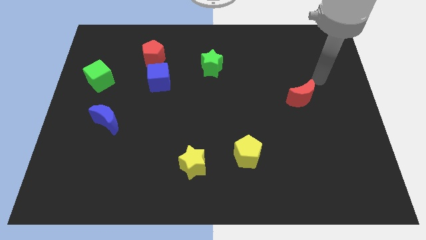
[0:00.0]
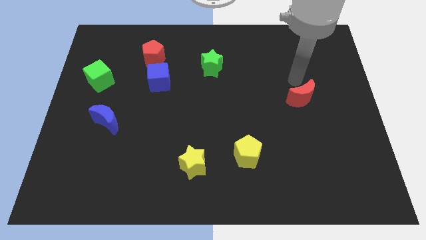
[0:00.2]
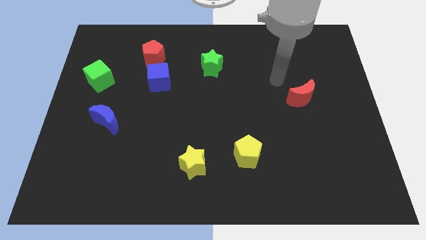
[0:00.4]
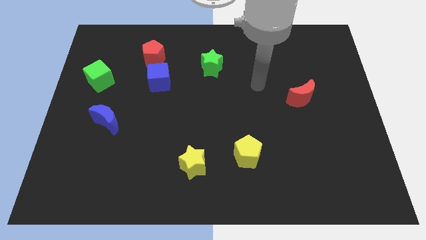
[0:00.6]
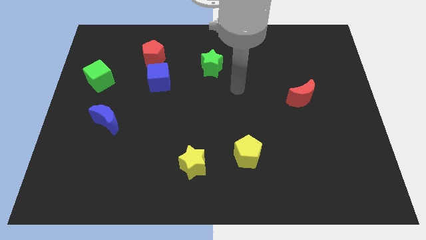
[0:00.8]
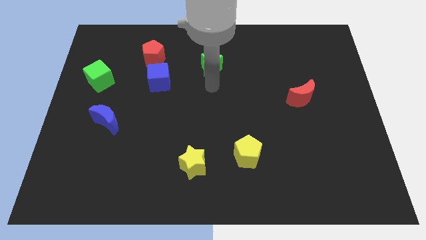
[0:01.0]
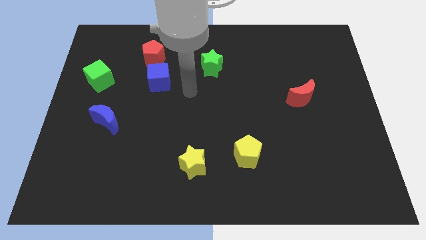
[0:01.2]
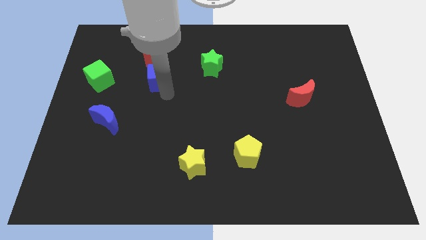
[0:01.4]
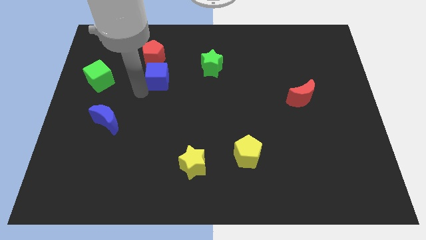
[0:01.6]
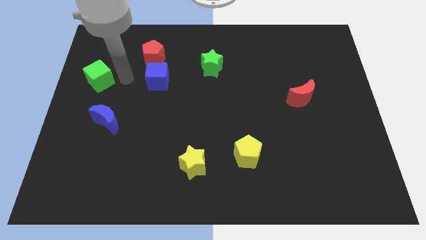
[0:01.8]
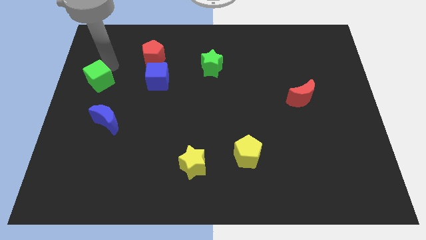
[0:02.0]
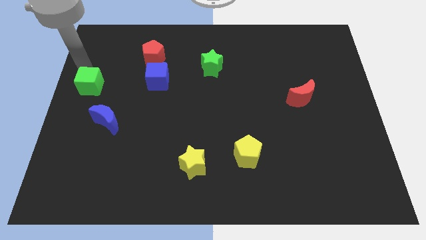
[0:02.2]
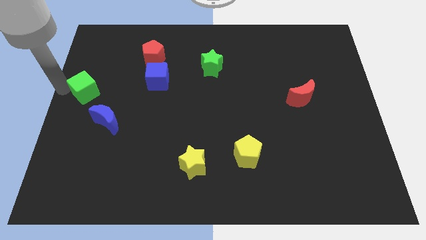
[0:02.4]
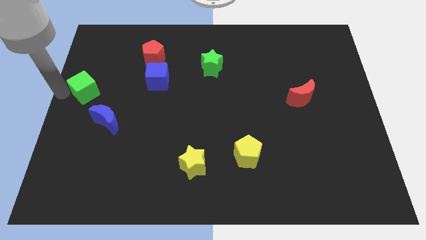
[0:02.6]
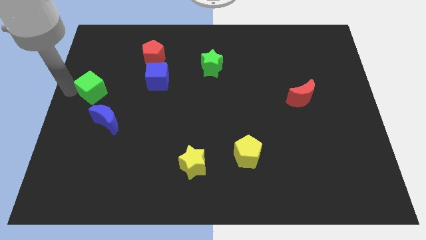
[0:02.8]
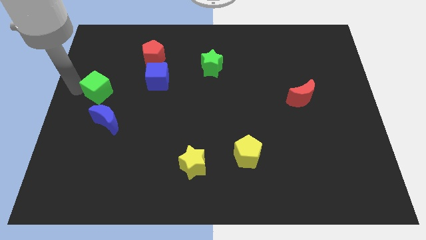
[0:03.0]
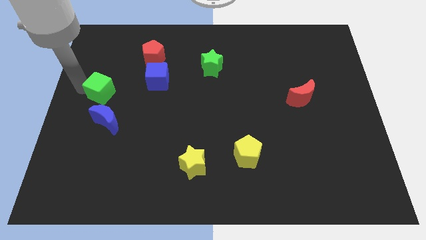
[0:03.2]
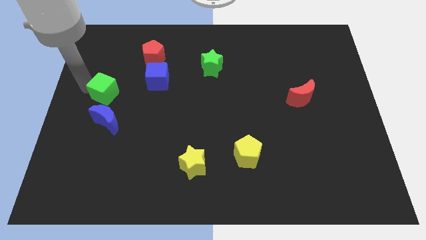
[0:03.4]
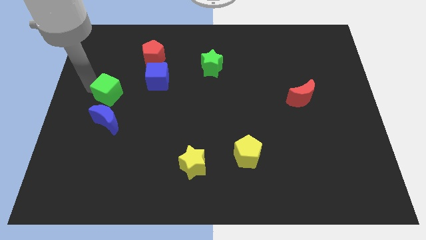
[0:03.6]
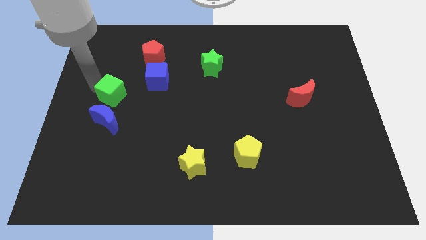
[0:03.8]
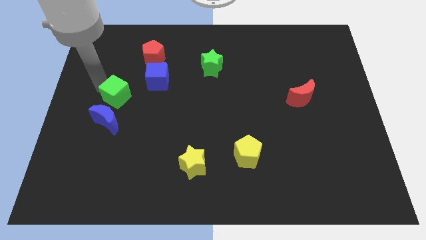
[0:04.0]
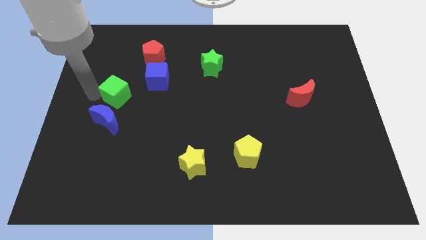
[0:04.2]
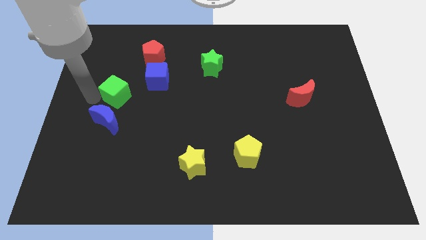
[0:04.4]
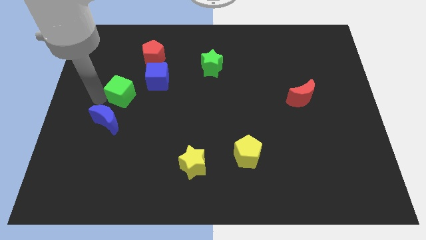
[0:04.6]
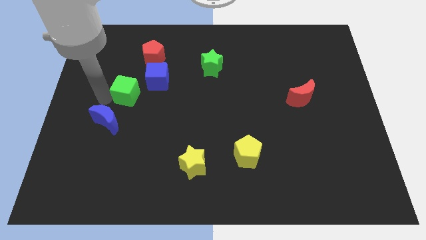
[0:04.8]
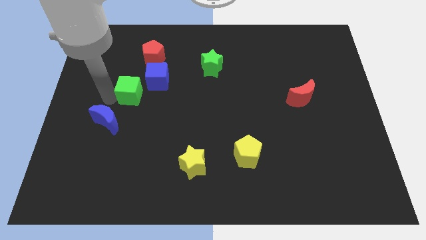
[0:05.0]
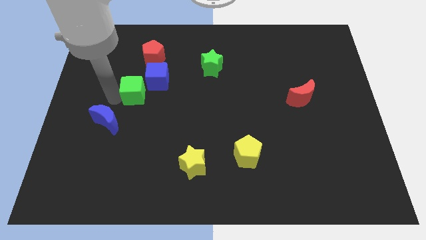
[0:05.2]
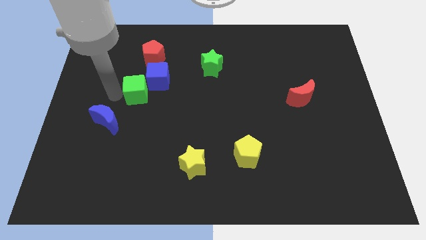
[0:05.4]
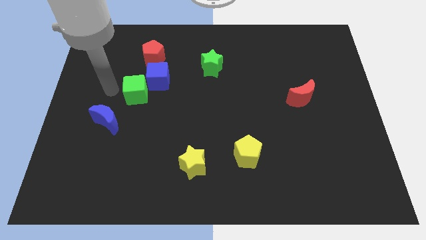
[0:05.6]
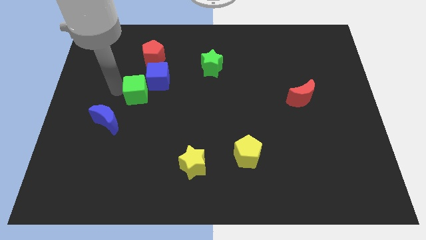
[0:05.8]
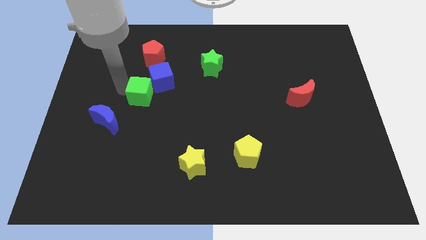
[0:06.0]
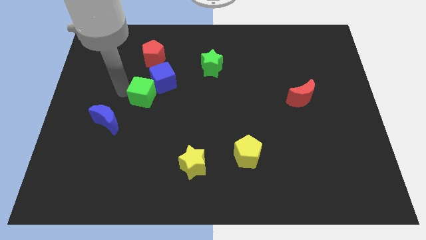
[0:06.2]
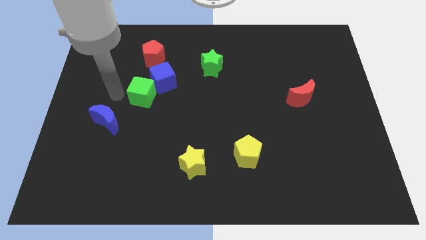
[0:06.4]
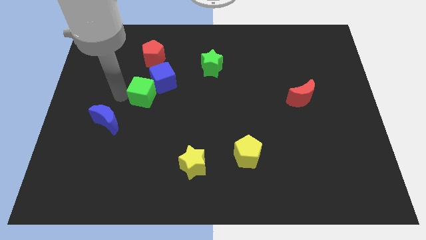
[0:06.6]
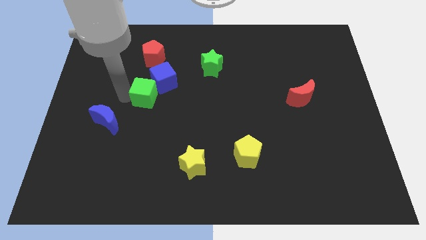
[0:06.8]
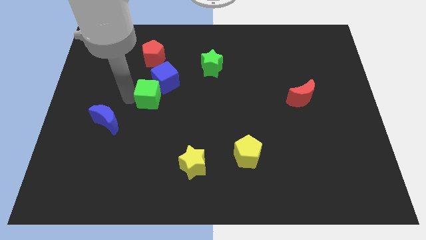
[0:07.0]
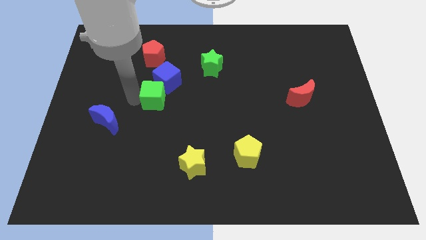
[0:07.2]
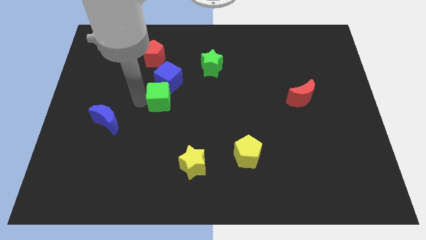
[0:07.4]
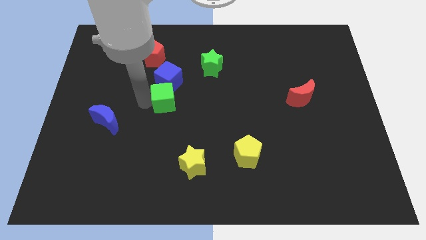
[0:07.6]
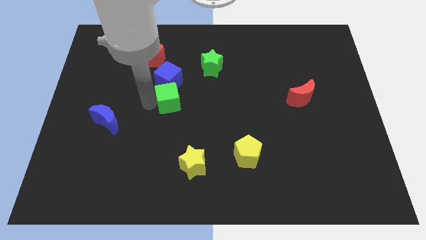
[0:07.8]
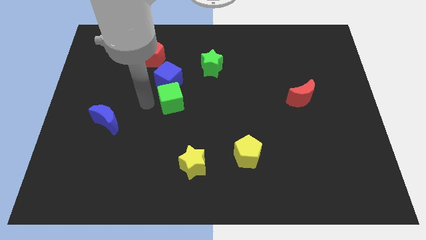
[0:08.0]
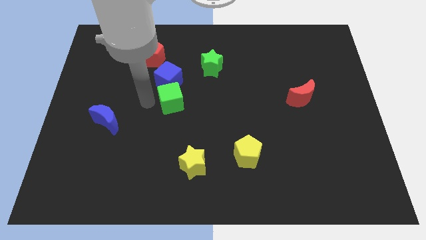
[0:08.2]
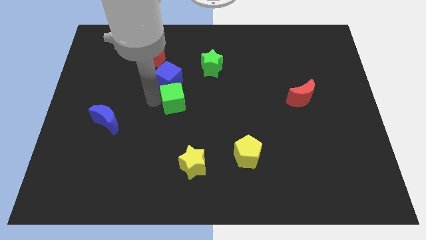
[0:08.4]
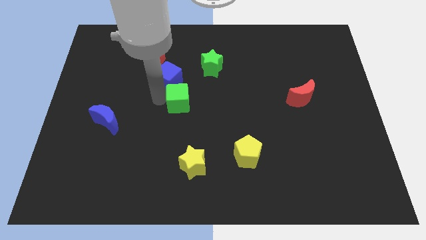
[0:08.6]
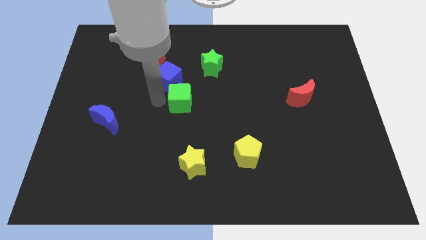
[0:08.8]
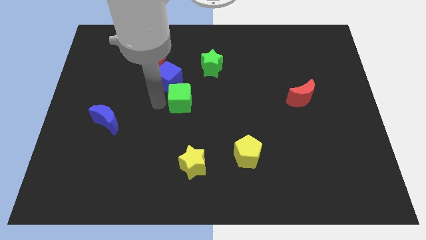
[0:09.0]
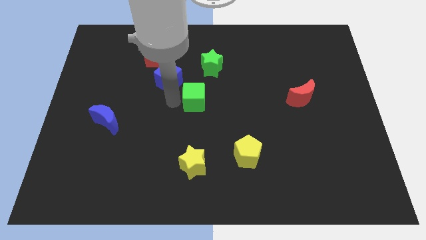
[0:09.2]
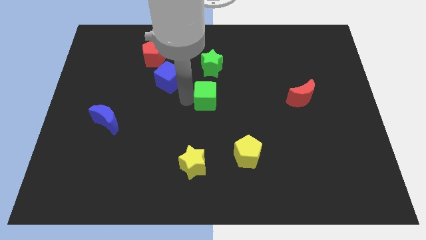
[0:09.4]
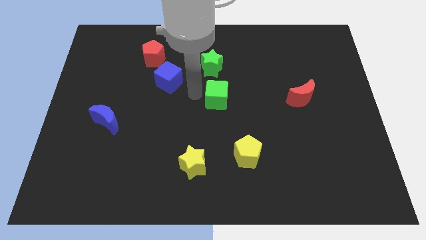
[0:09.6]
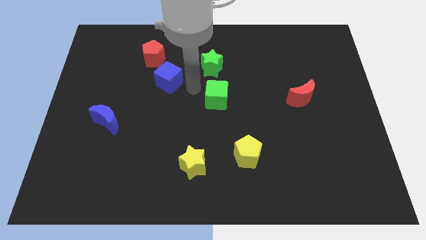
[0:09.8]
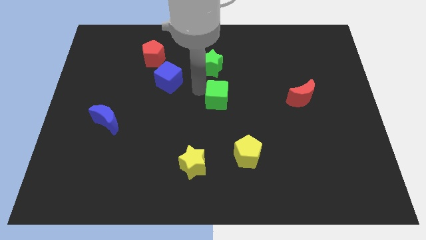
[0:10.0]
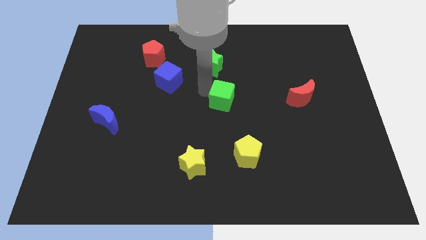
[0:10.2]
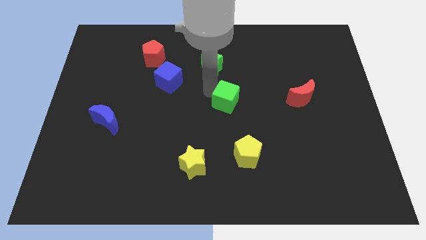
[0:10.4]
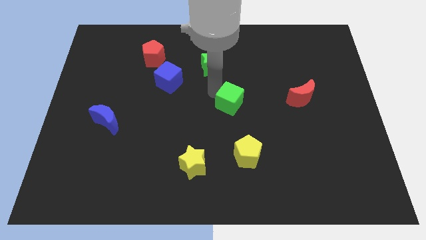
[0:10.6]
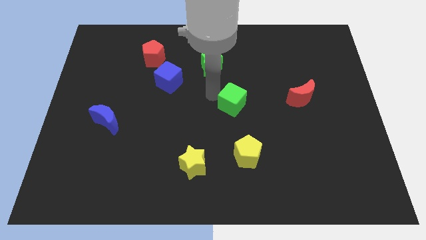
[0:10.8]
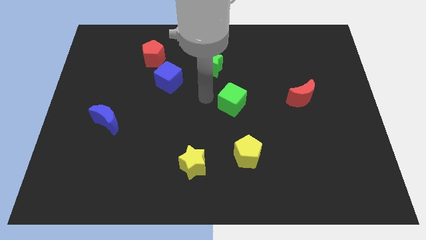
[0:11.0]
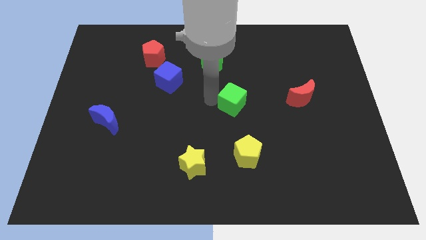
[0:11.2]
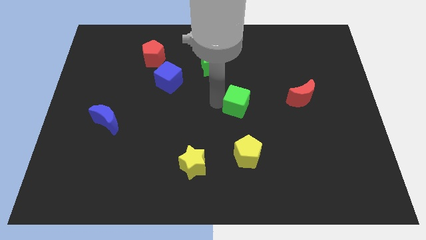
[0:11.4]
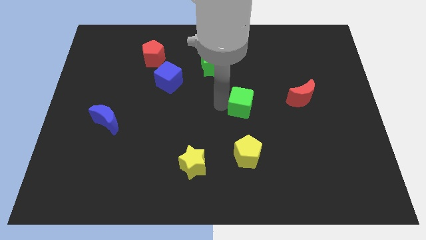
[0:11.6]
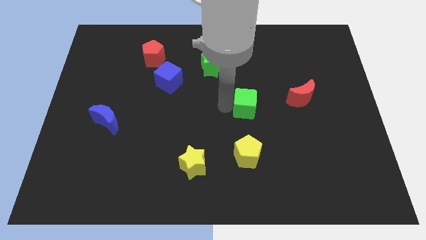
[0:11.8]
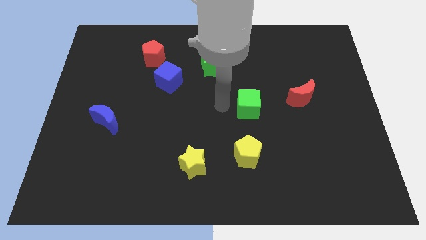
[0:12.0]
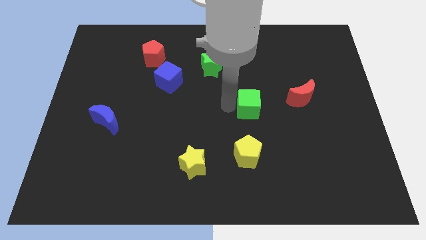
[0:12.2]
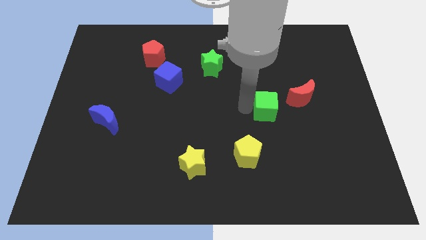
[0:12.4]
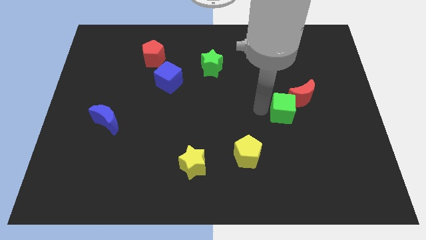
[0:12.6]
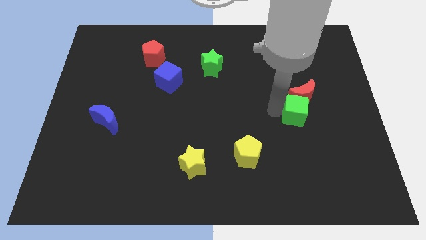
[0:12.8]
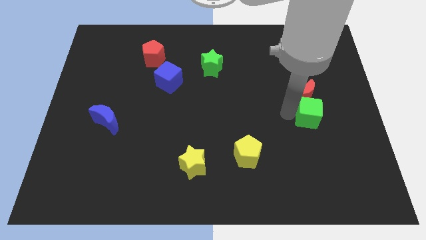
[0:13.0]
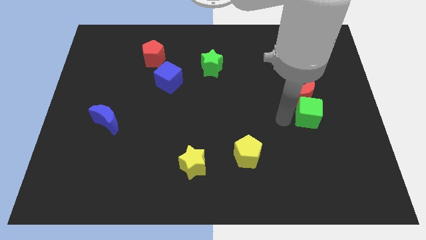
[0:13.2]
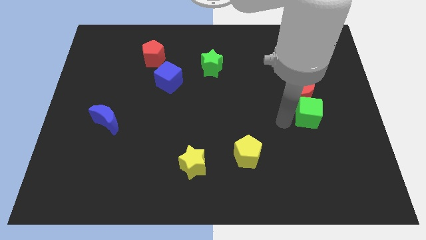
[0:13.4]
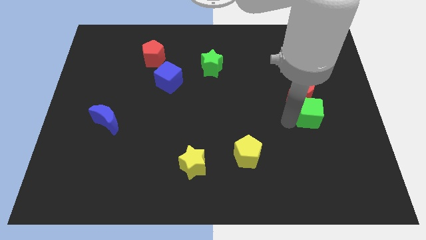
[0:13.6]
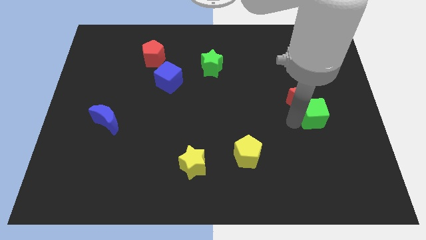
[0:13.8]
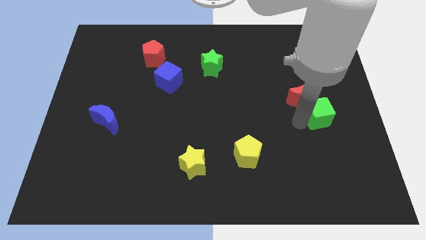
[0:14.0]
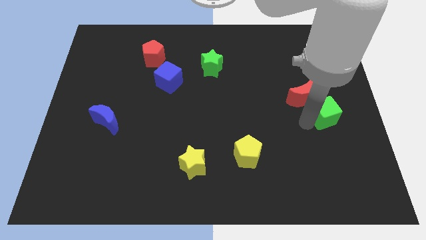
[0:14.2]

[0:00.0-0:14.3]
move the green cube to the right side
